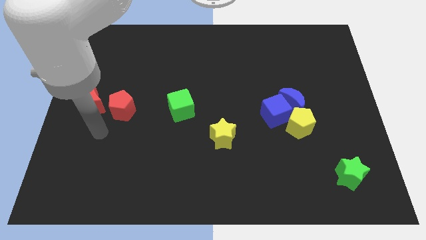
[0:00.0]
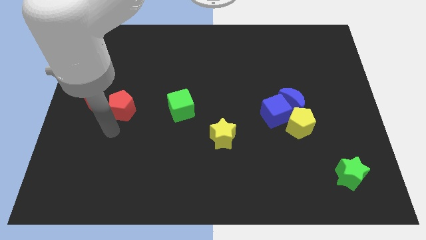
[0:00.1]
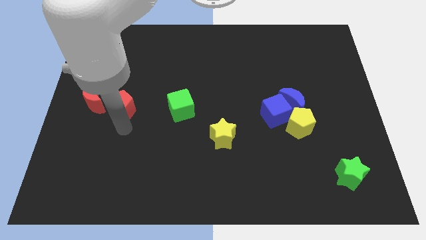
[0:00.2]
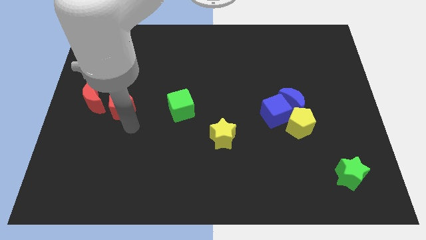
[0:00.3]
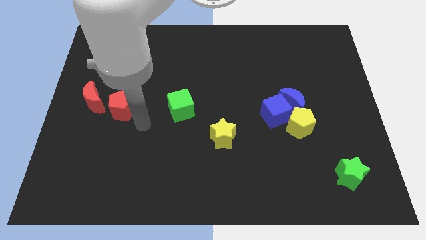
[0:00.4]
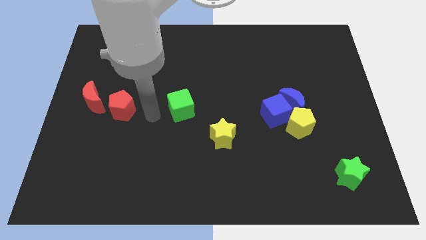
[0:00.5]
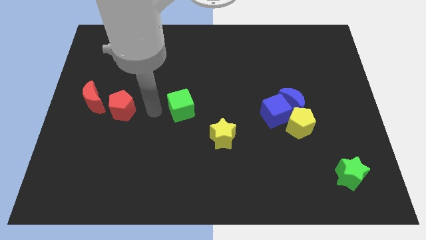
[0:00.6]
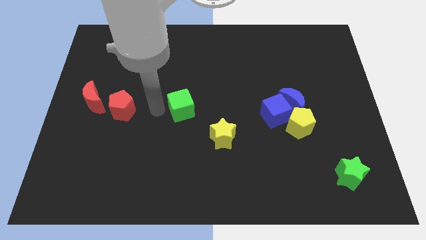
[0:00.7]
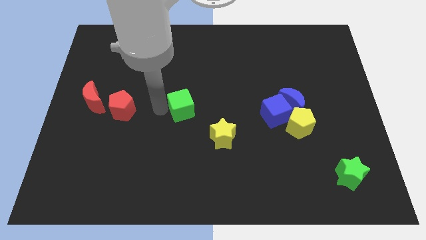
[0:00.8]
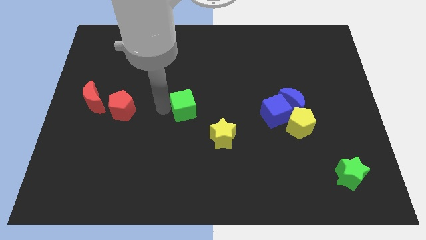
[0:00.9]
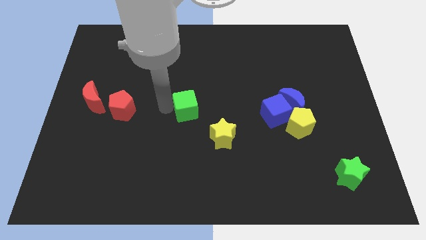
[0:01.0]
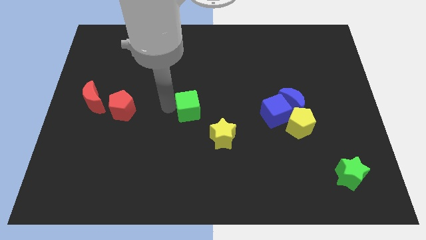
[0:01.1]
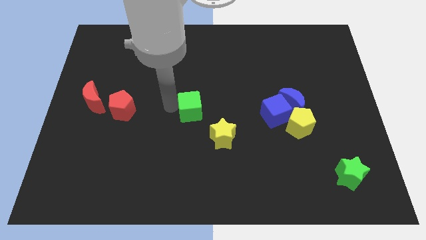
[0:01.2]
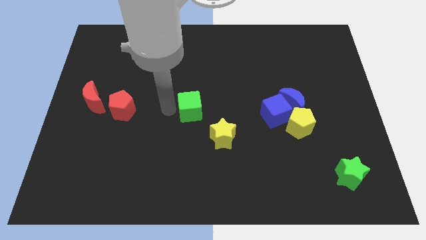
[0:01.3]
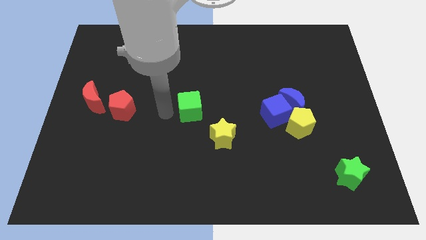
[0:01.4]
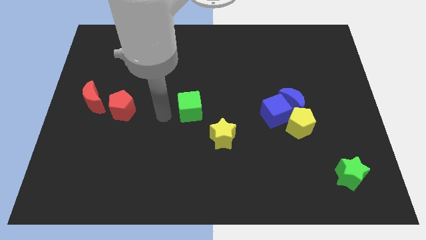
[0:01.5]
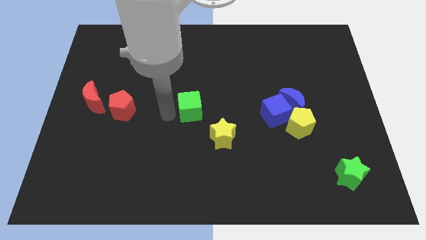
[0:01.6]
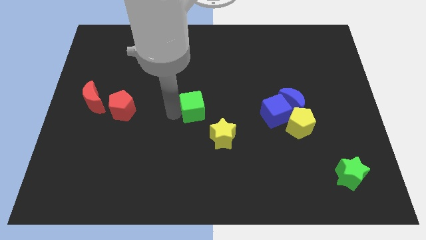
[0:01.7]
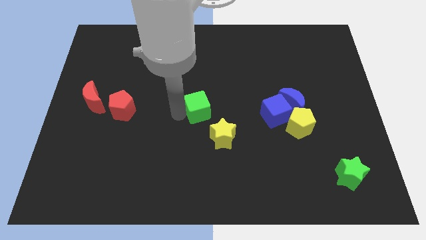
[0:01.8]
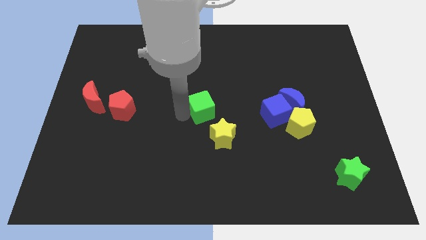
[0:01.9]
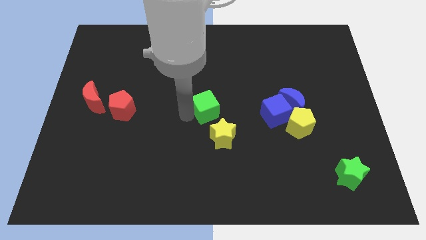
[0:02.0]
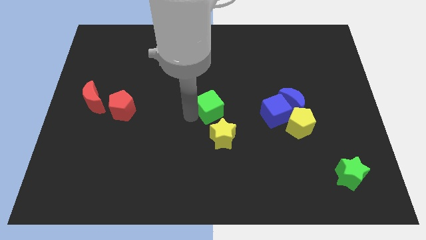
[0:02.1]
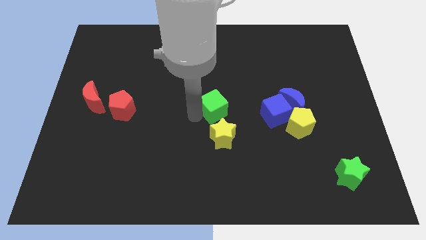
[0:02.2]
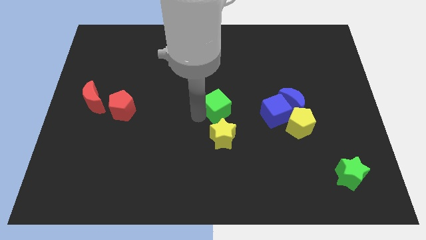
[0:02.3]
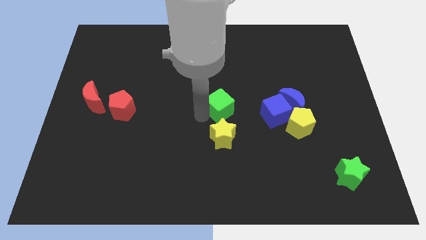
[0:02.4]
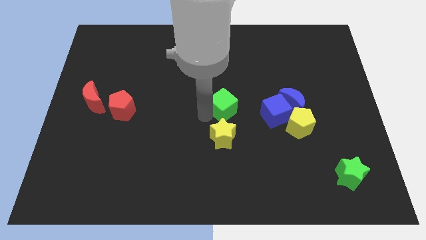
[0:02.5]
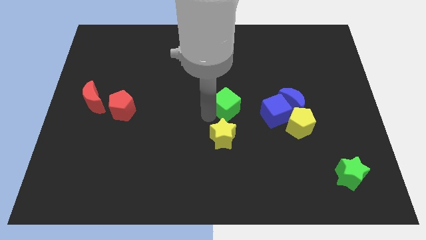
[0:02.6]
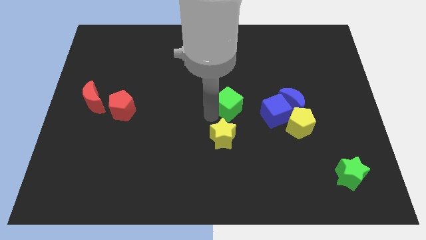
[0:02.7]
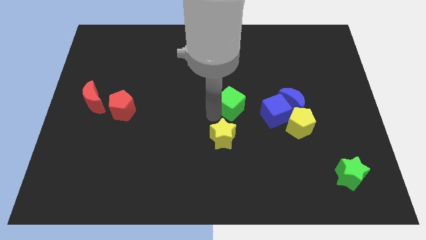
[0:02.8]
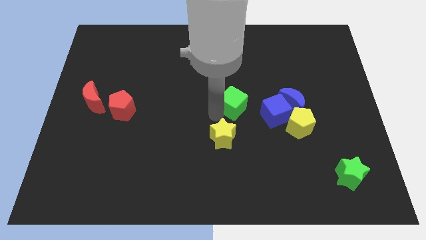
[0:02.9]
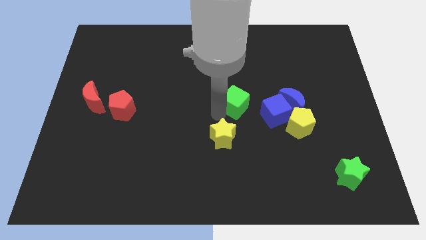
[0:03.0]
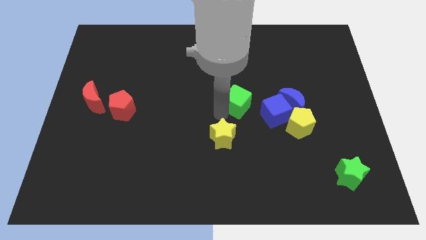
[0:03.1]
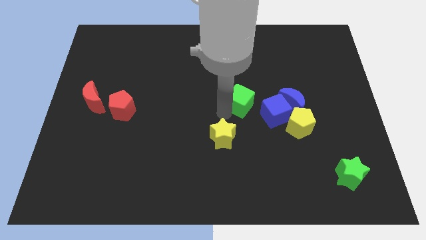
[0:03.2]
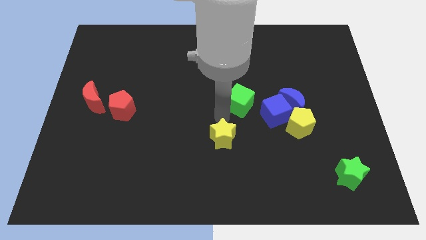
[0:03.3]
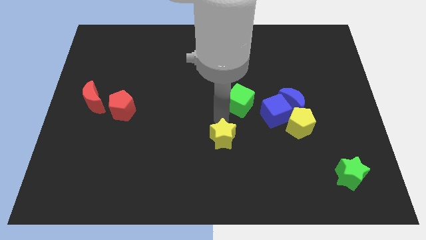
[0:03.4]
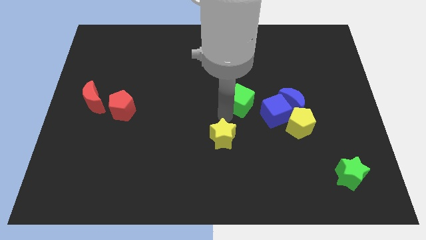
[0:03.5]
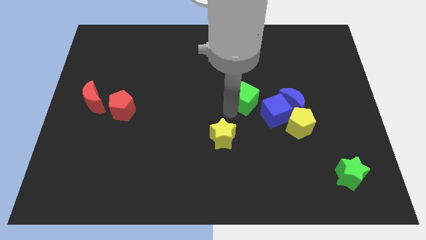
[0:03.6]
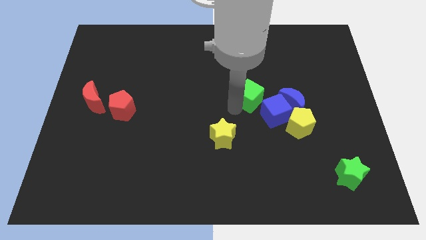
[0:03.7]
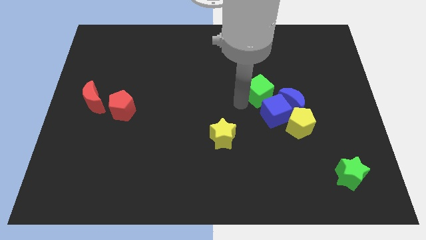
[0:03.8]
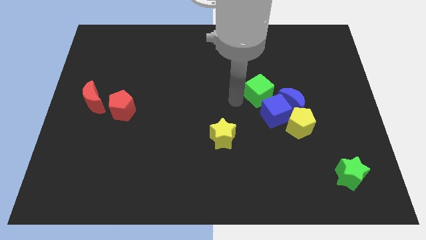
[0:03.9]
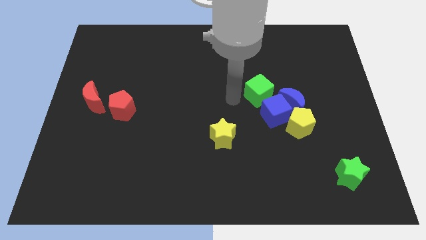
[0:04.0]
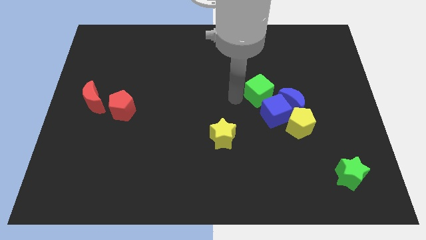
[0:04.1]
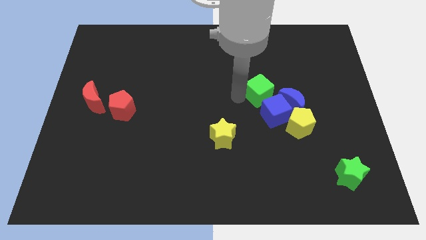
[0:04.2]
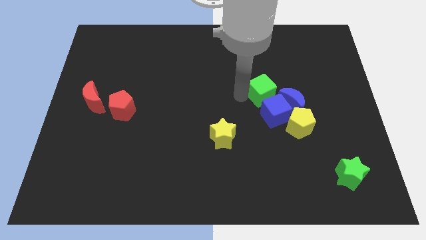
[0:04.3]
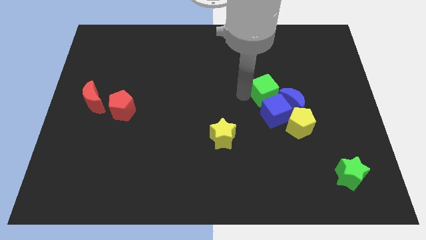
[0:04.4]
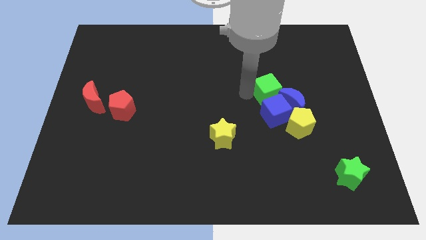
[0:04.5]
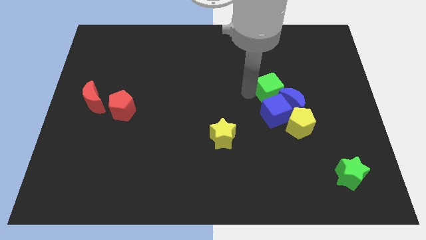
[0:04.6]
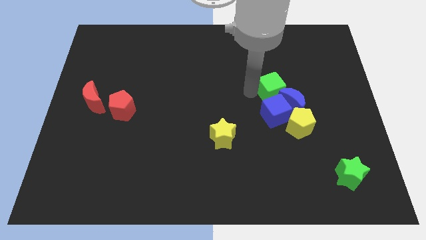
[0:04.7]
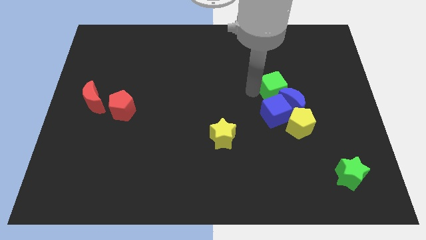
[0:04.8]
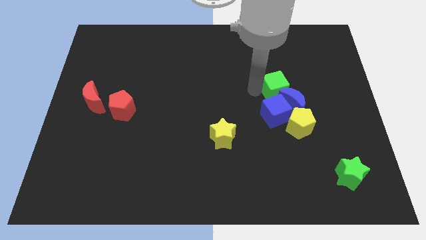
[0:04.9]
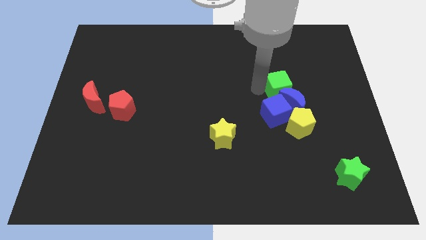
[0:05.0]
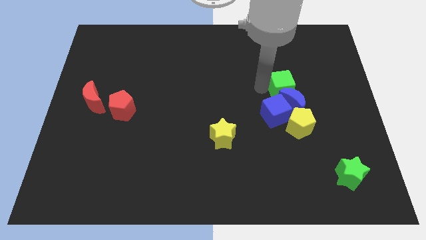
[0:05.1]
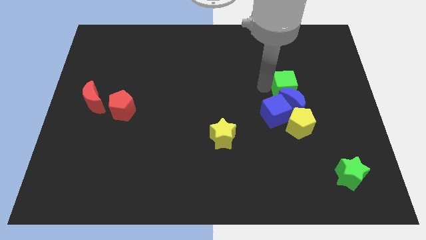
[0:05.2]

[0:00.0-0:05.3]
slide the green cube to the top right of the blue moon

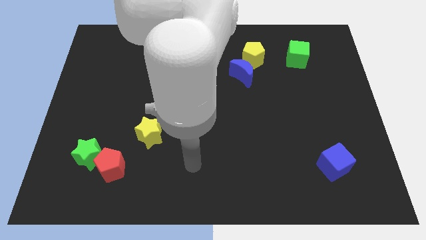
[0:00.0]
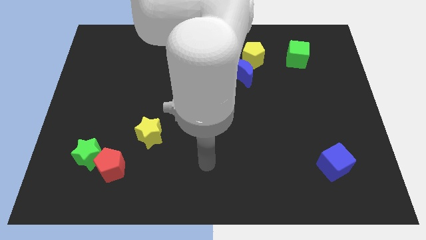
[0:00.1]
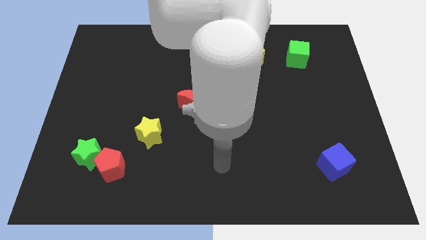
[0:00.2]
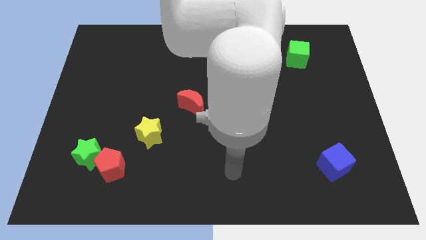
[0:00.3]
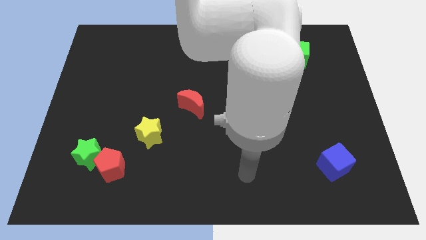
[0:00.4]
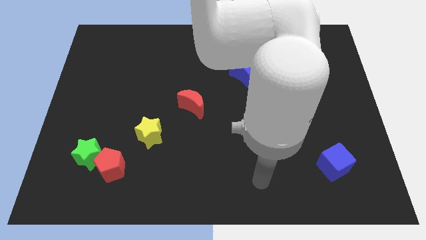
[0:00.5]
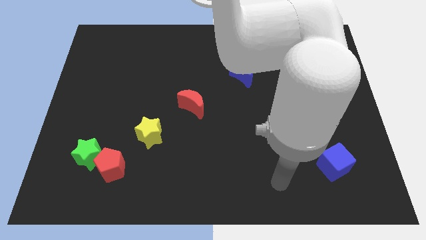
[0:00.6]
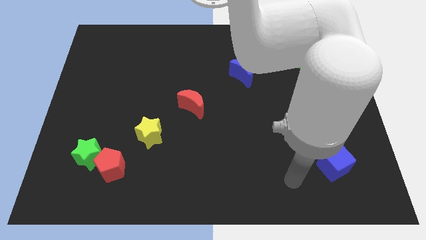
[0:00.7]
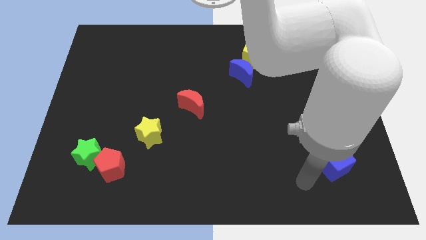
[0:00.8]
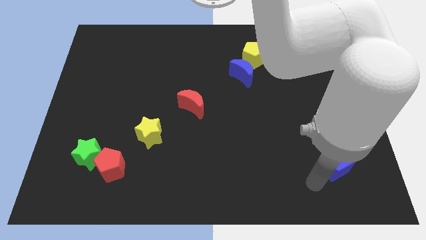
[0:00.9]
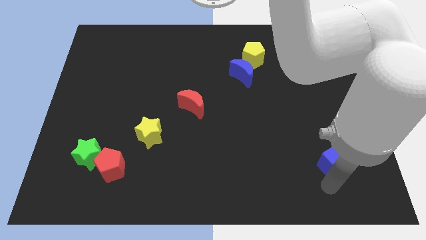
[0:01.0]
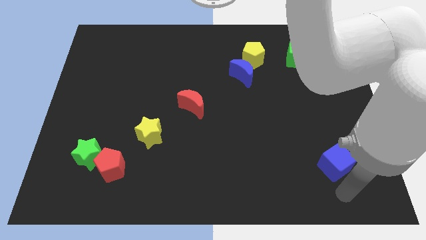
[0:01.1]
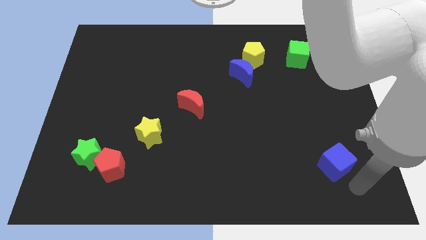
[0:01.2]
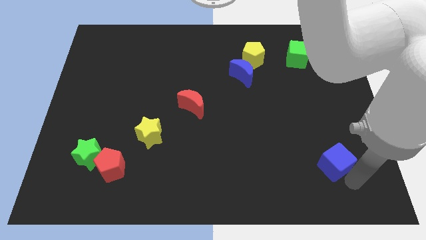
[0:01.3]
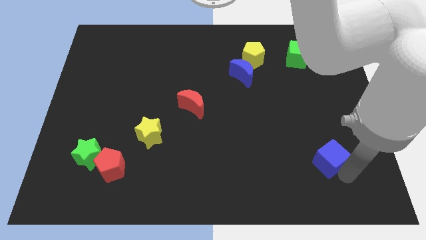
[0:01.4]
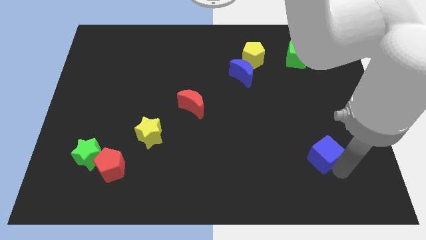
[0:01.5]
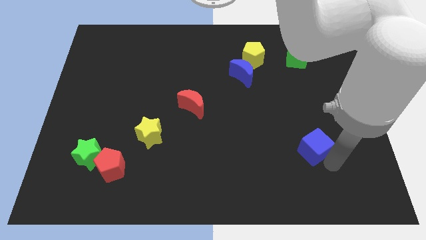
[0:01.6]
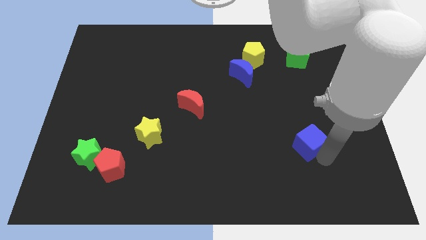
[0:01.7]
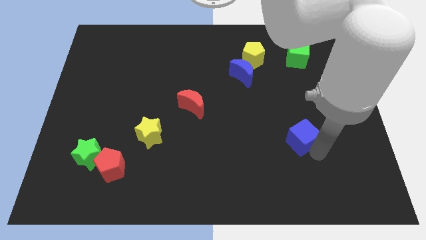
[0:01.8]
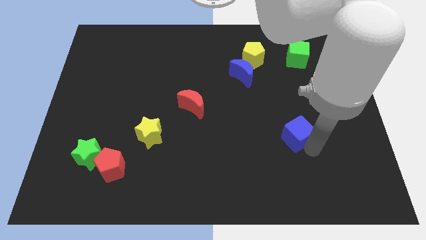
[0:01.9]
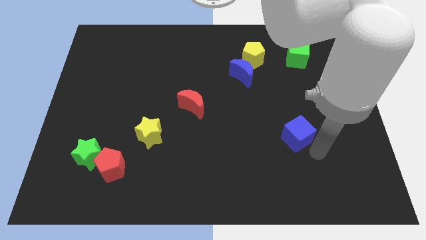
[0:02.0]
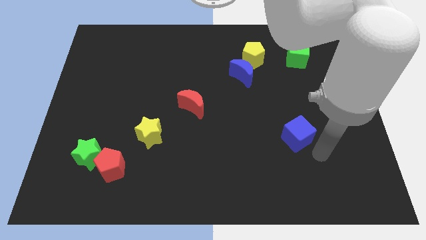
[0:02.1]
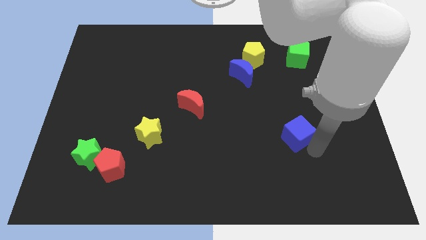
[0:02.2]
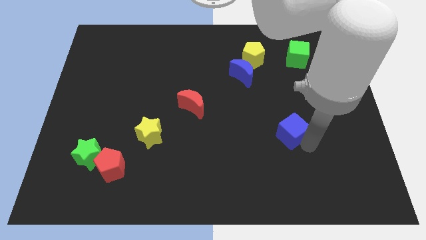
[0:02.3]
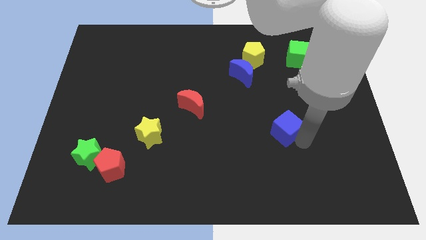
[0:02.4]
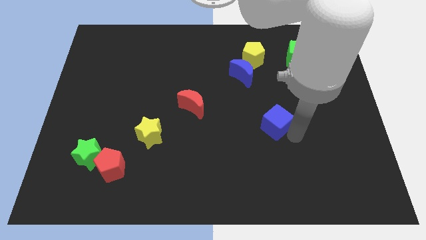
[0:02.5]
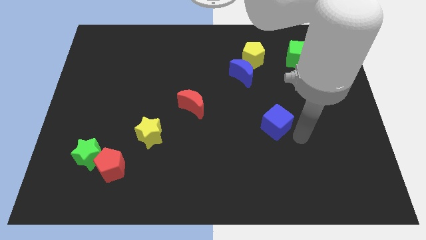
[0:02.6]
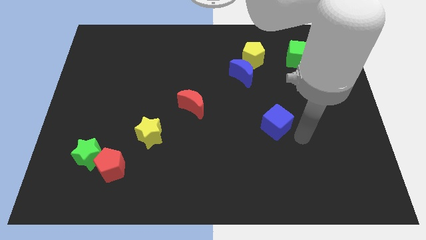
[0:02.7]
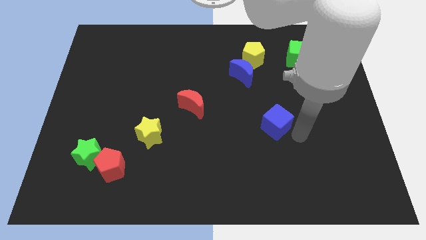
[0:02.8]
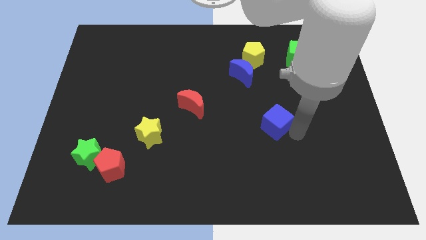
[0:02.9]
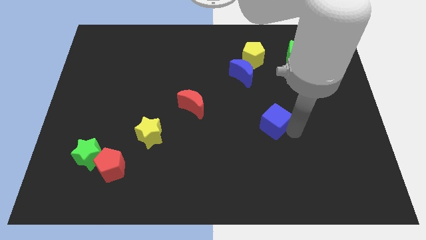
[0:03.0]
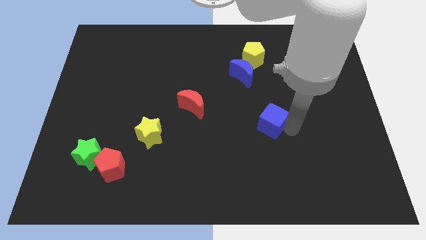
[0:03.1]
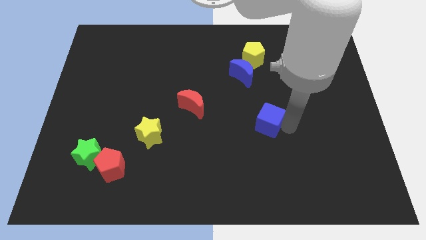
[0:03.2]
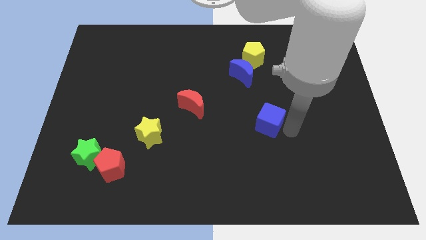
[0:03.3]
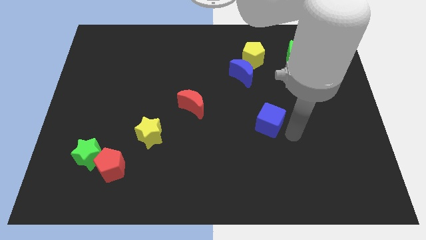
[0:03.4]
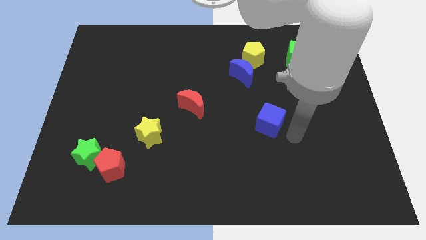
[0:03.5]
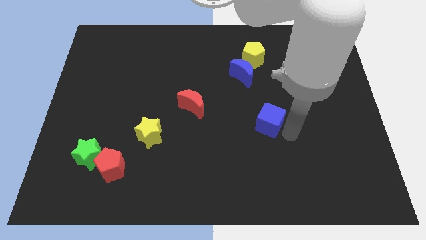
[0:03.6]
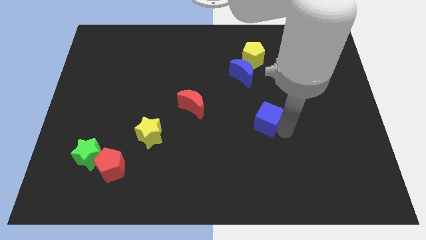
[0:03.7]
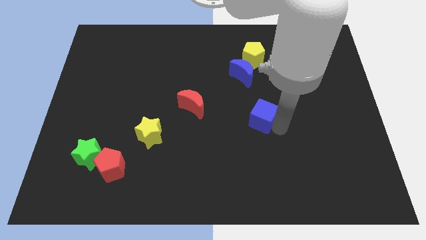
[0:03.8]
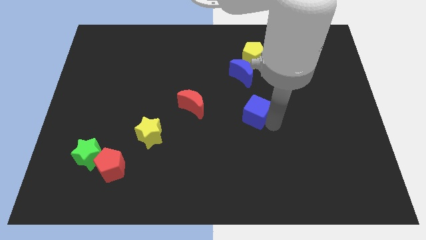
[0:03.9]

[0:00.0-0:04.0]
slide the blue cube to the right of the red moon
